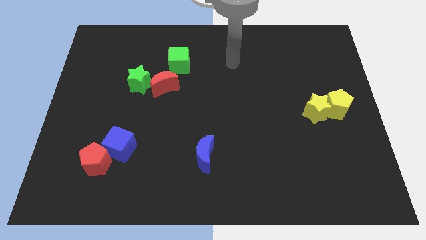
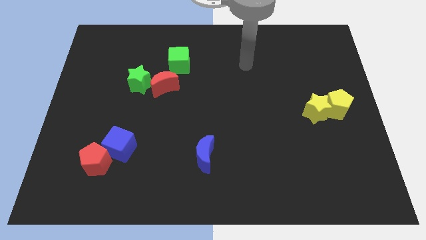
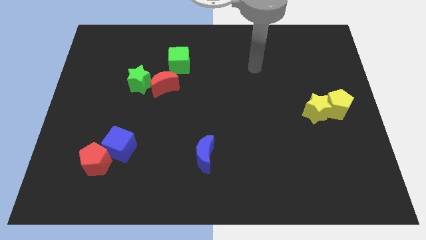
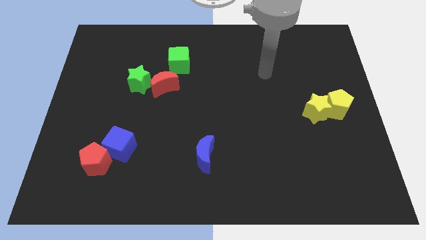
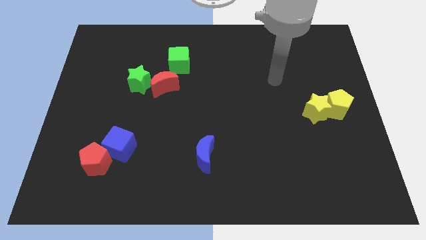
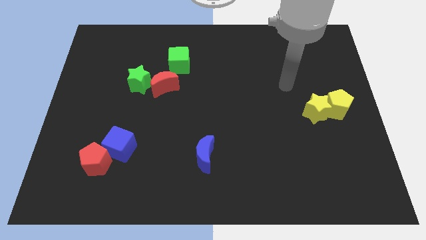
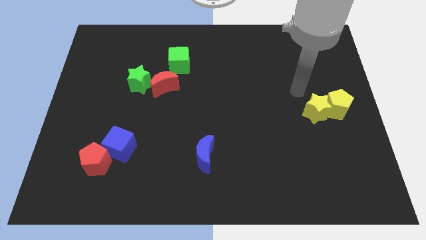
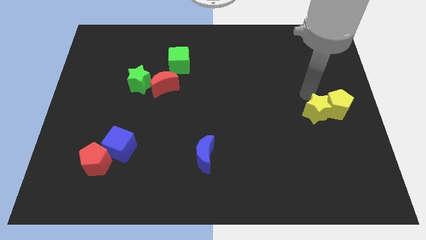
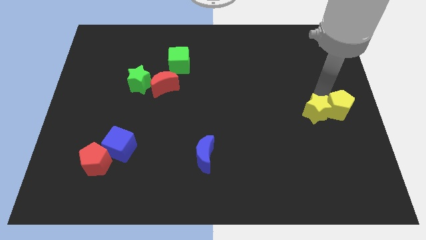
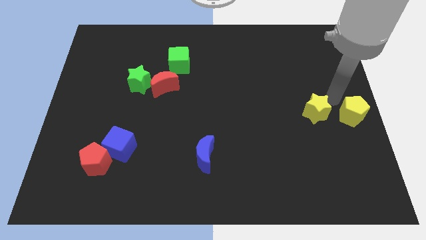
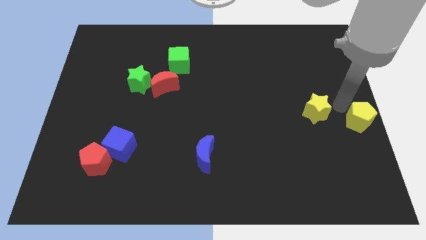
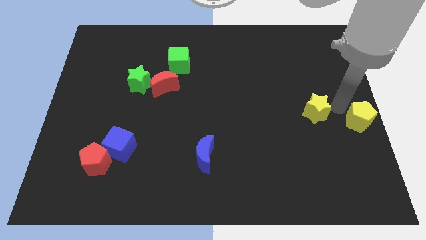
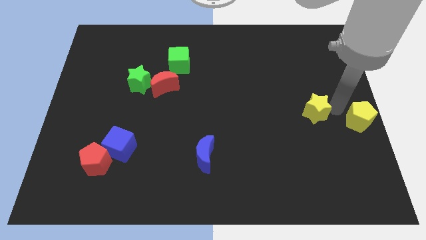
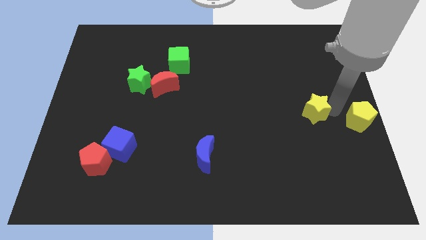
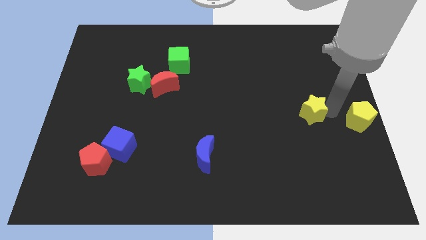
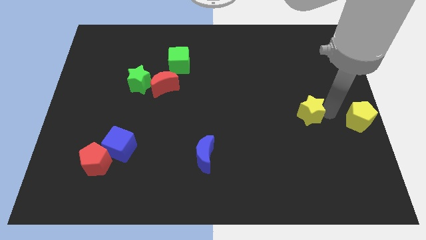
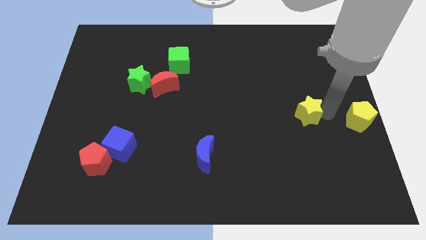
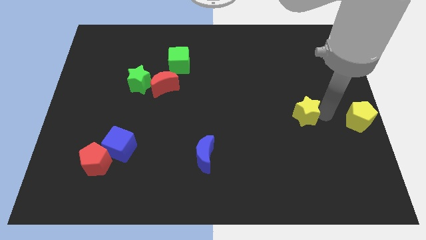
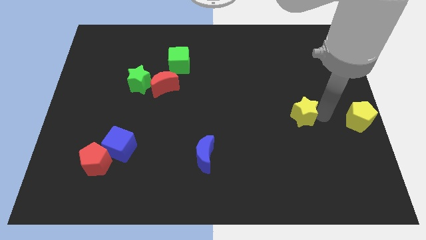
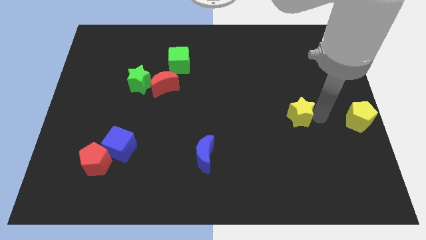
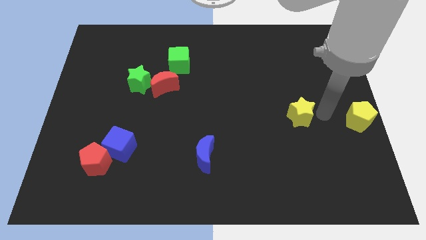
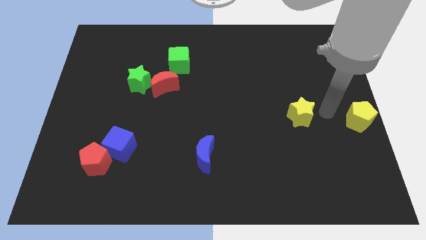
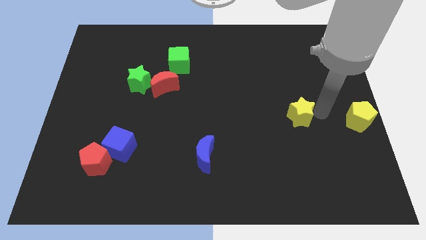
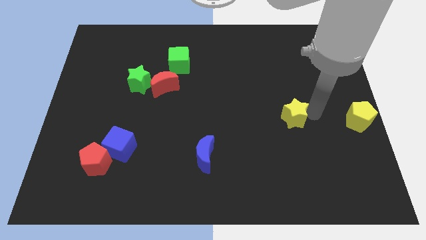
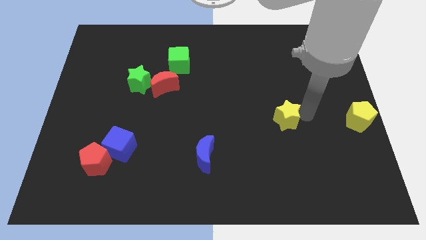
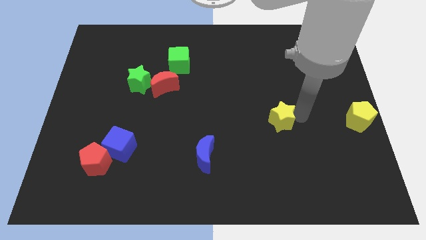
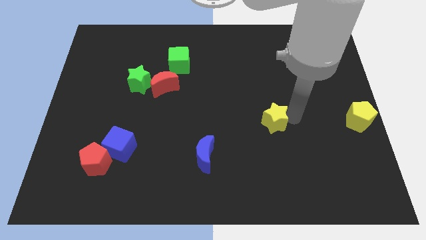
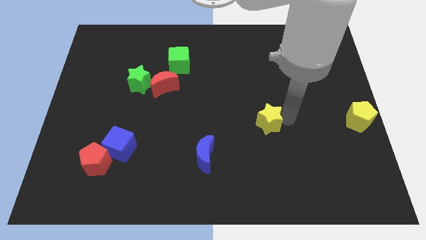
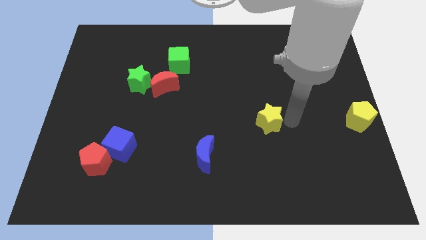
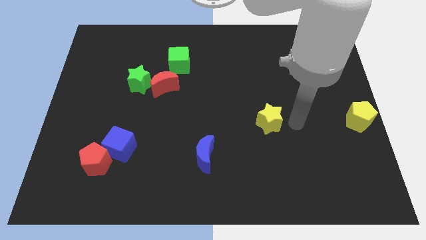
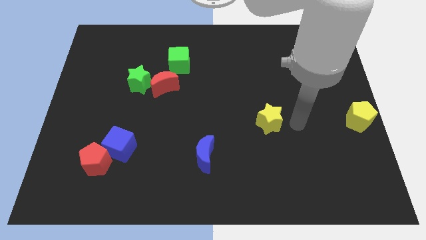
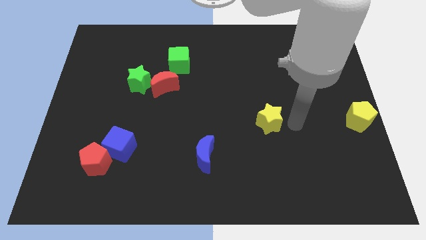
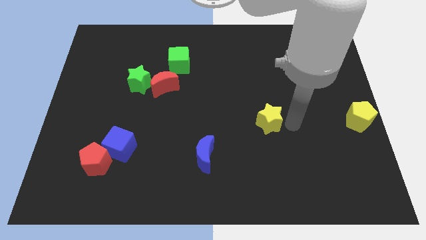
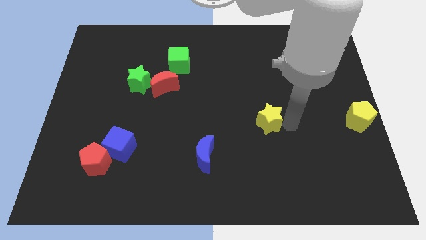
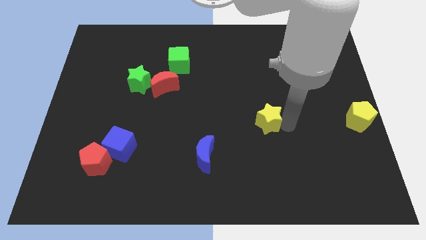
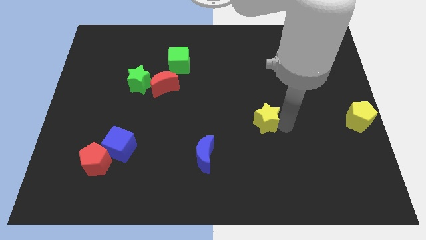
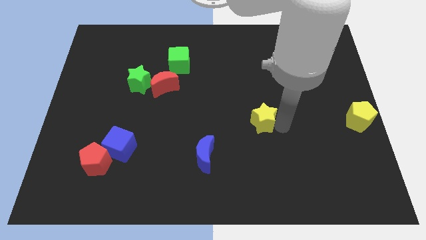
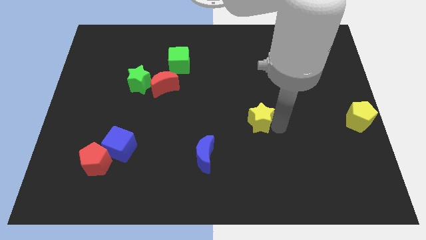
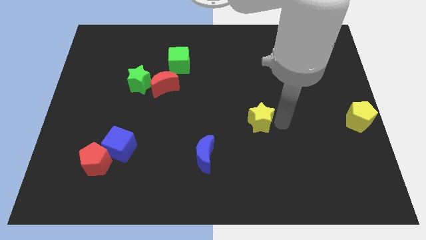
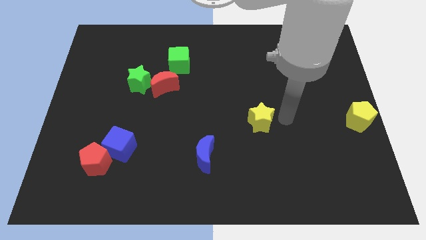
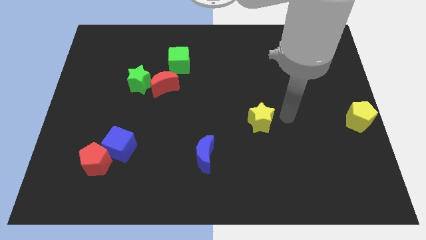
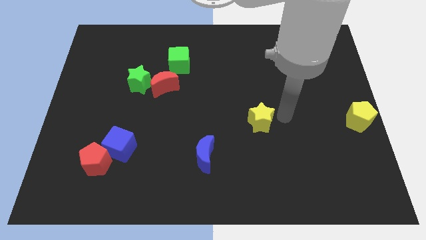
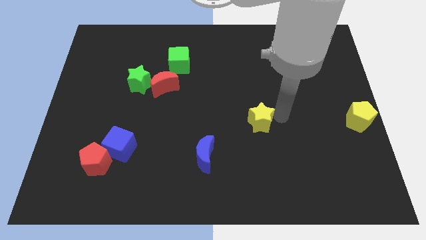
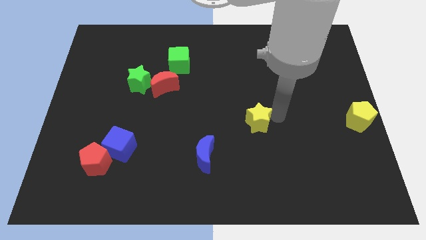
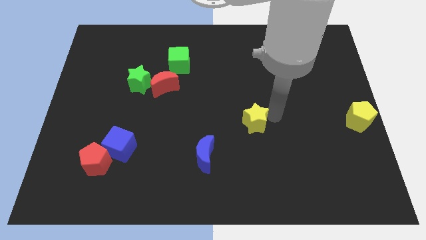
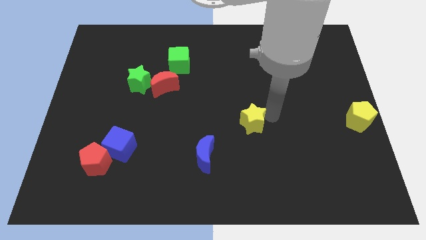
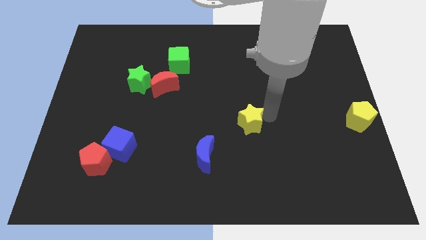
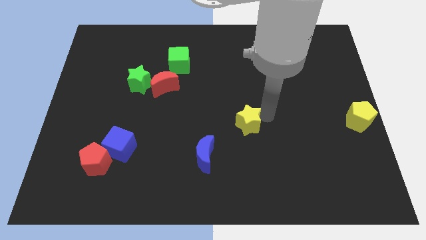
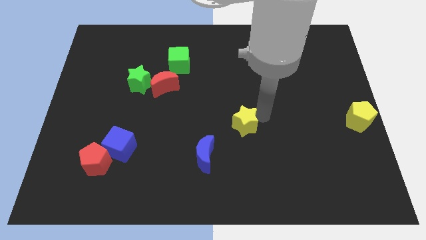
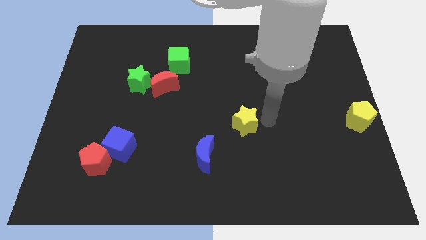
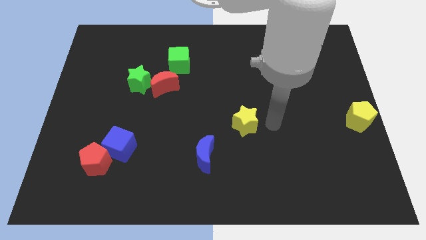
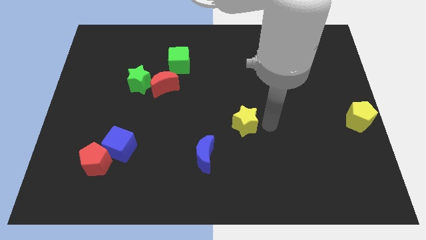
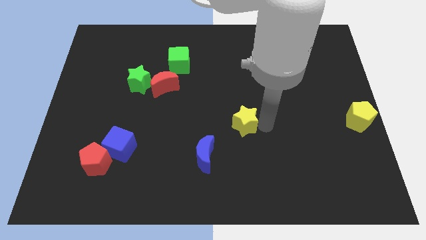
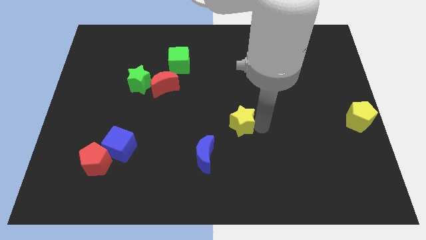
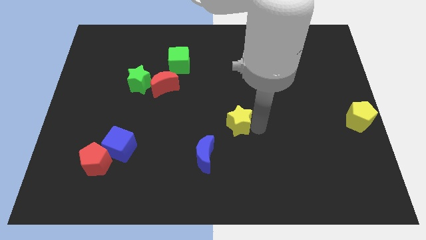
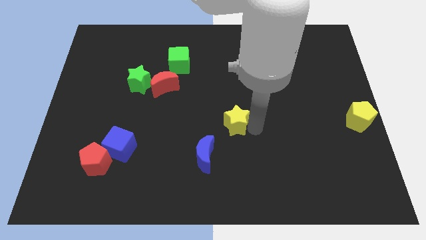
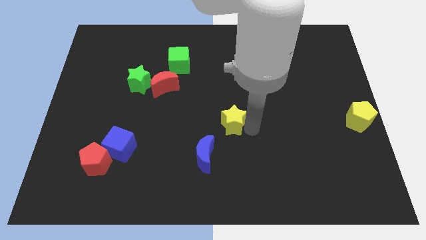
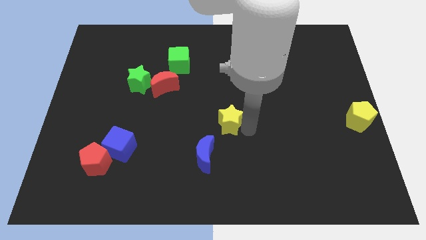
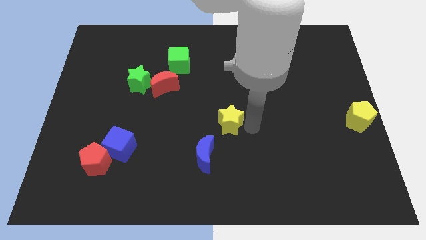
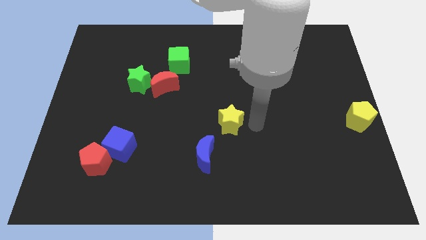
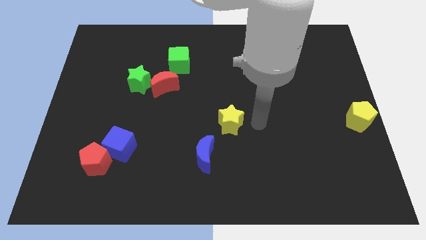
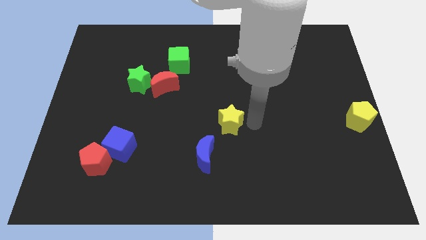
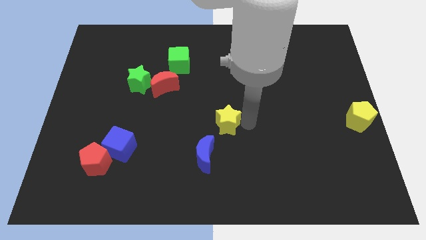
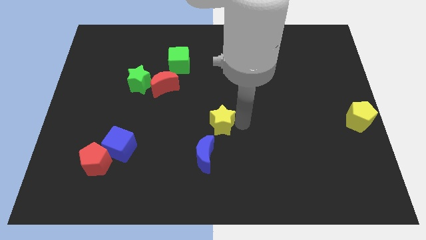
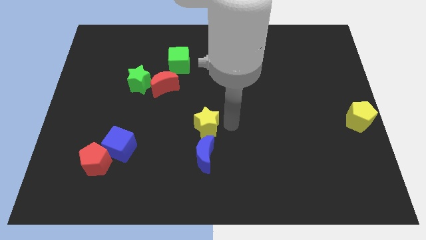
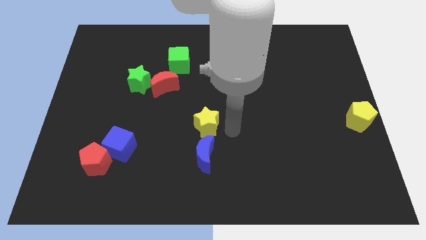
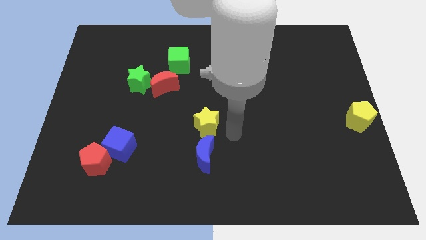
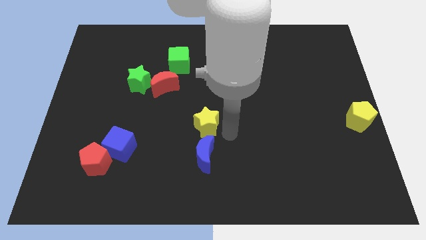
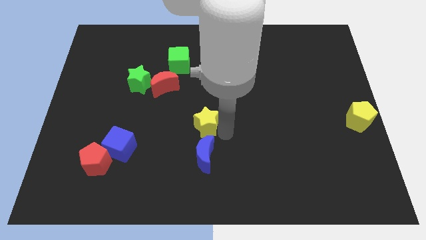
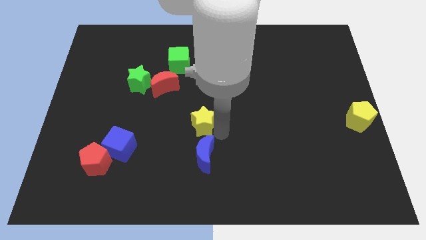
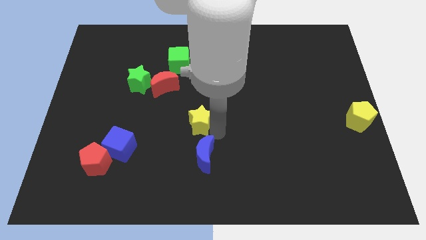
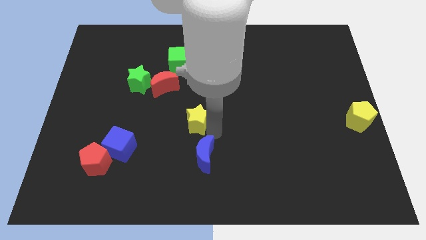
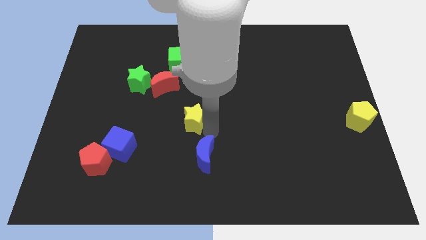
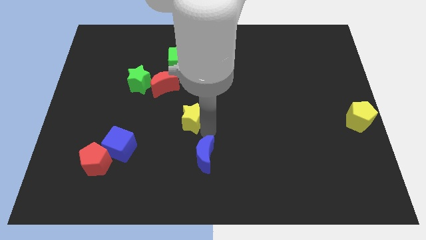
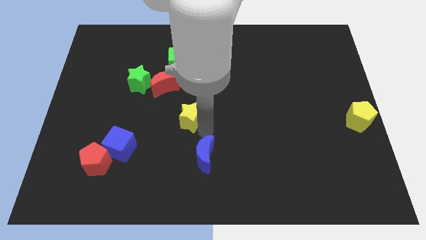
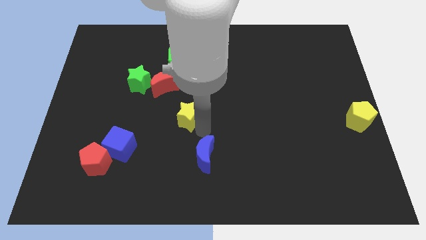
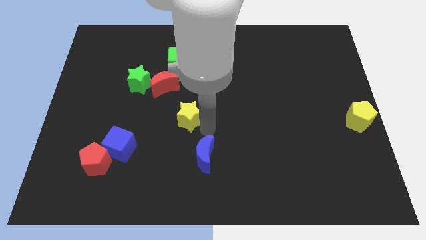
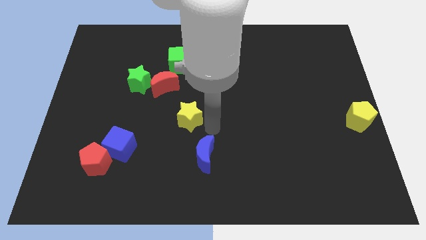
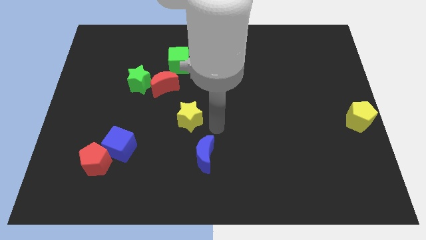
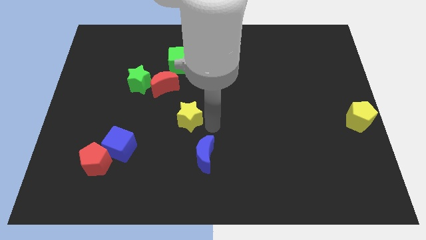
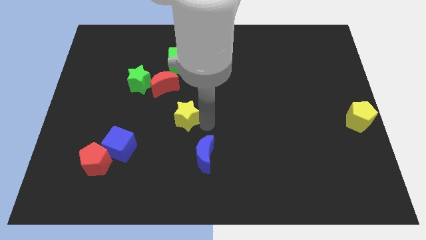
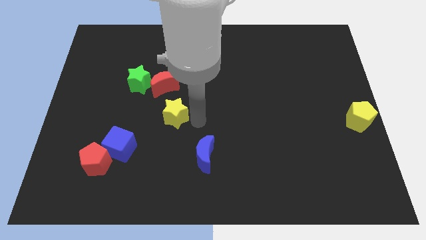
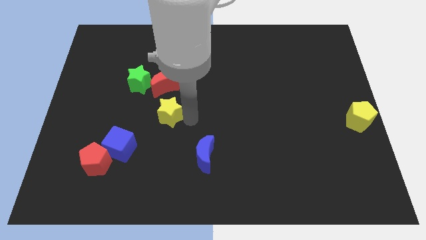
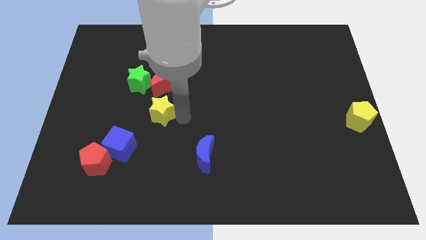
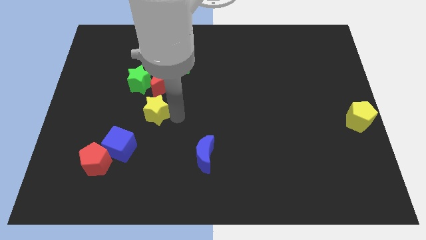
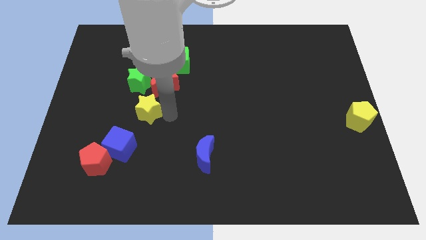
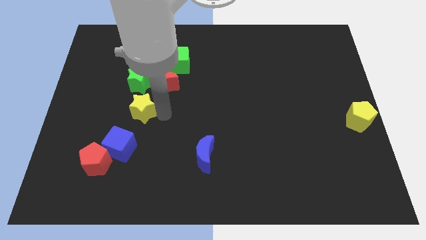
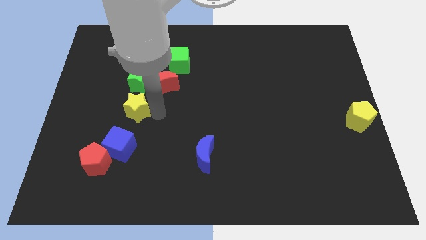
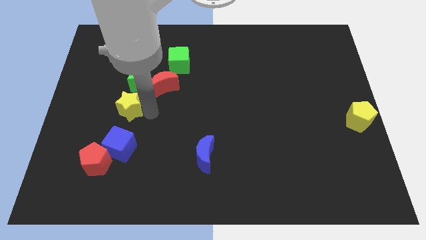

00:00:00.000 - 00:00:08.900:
move the yellow star to the bottom left of the green star

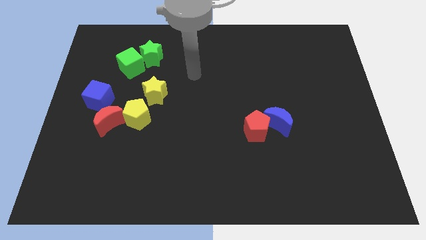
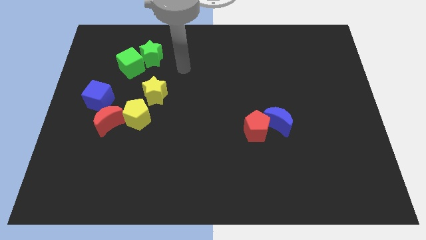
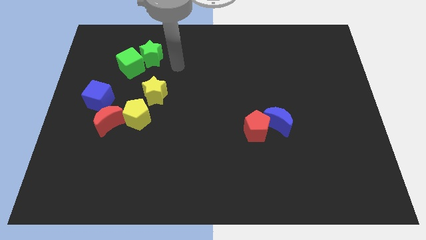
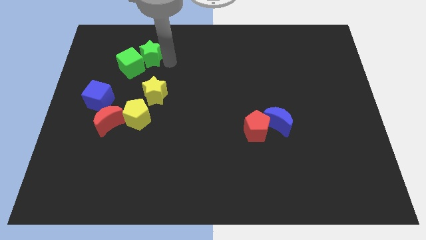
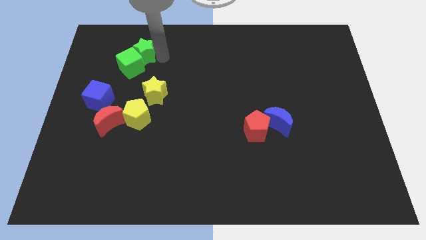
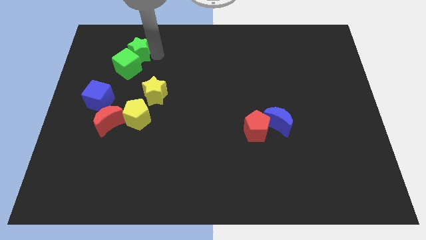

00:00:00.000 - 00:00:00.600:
put the green cube to the top right of the blue cube
